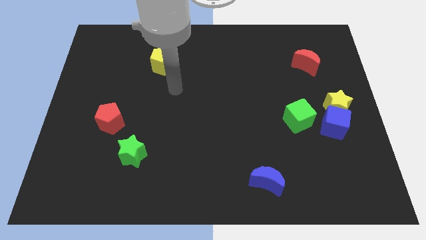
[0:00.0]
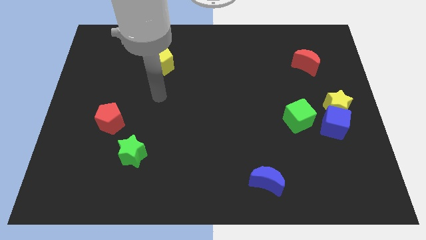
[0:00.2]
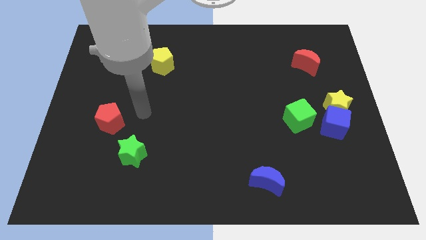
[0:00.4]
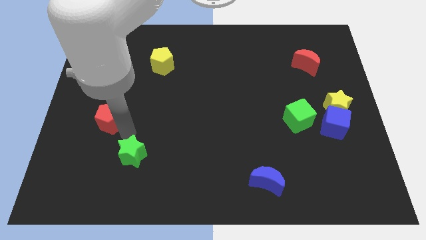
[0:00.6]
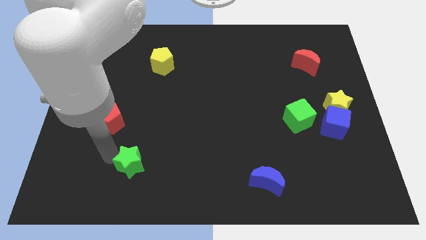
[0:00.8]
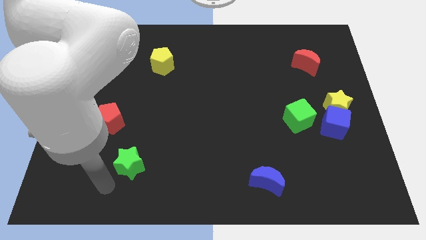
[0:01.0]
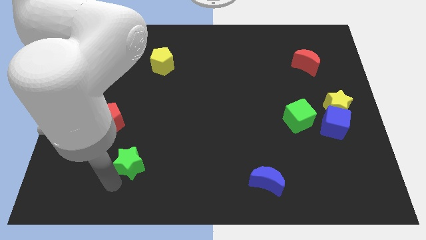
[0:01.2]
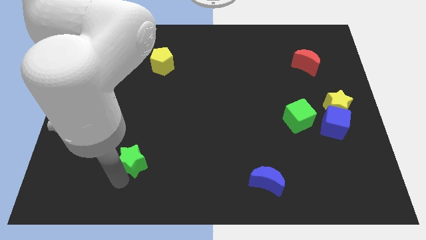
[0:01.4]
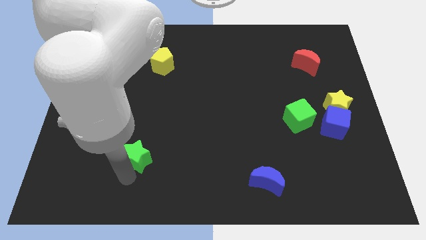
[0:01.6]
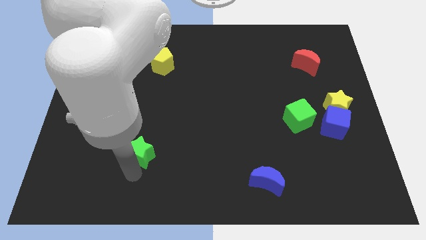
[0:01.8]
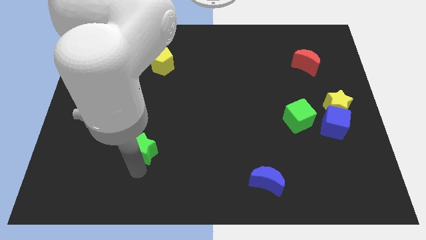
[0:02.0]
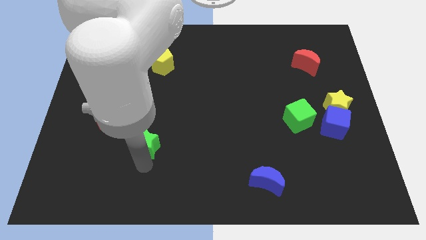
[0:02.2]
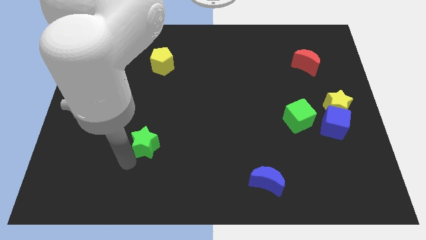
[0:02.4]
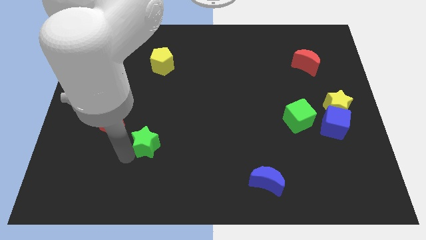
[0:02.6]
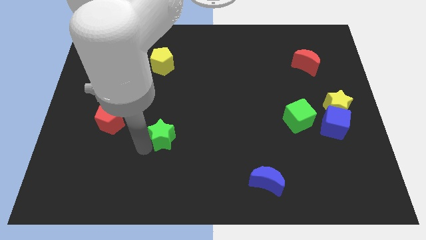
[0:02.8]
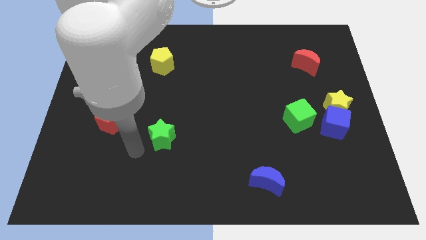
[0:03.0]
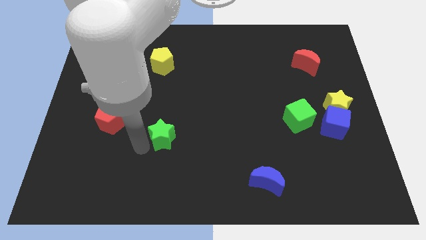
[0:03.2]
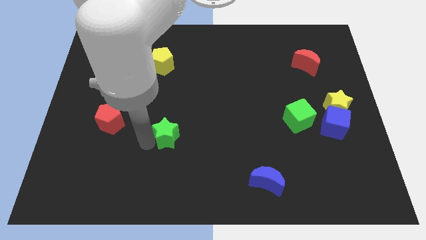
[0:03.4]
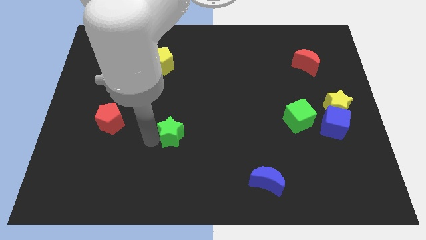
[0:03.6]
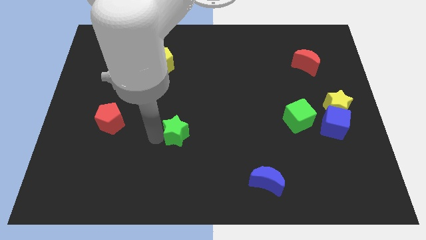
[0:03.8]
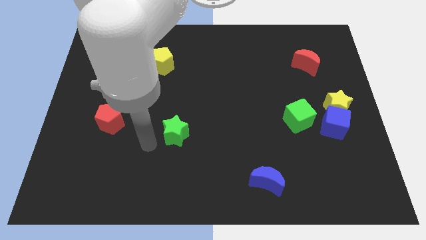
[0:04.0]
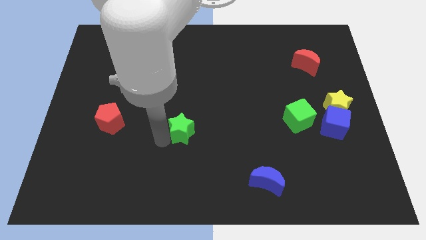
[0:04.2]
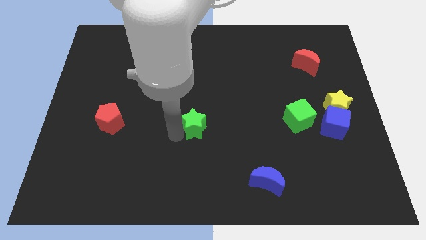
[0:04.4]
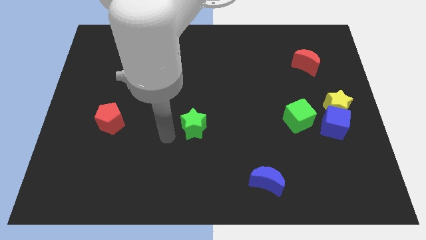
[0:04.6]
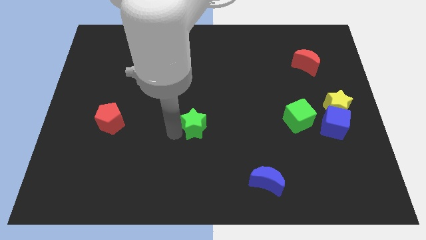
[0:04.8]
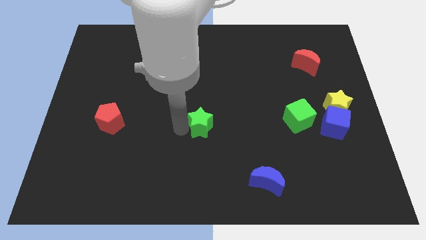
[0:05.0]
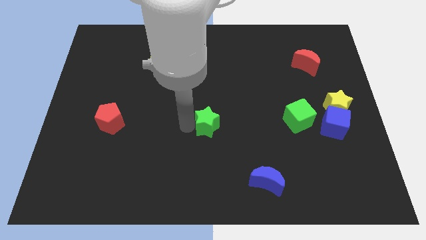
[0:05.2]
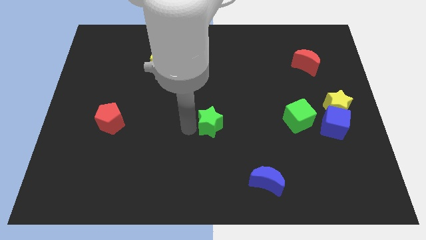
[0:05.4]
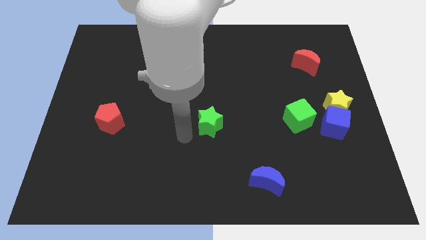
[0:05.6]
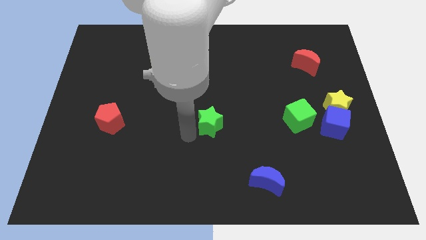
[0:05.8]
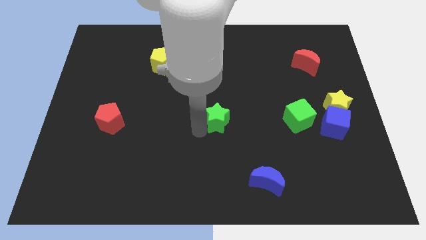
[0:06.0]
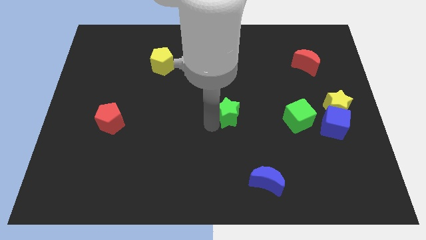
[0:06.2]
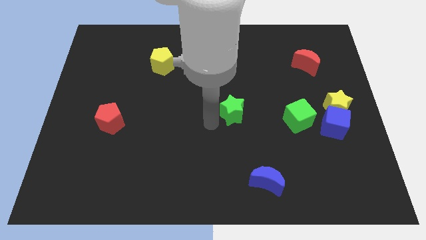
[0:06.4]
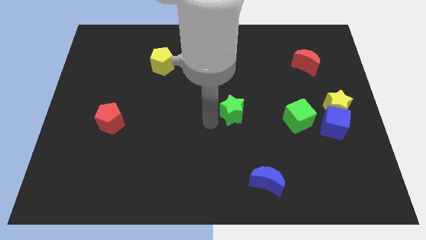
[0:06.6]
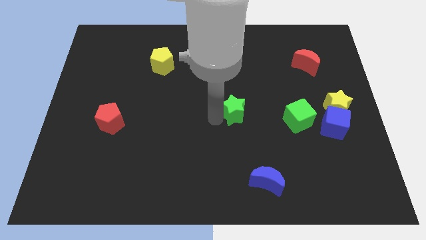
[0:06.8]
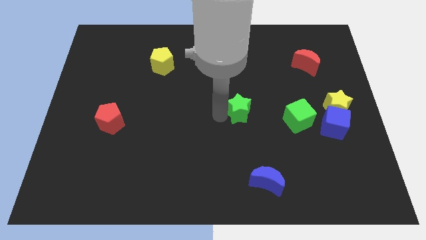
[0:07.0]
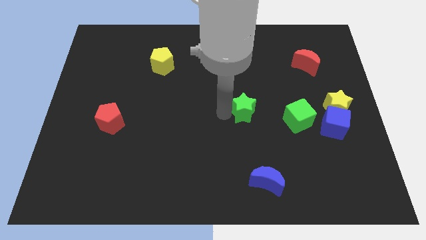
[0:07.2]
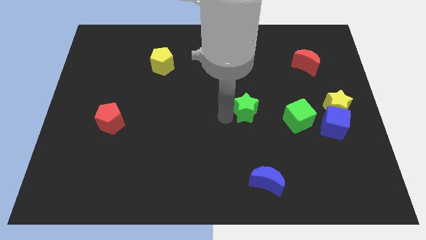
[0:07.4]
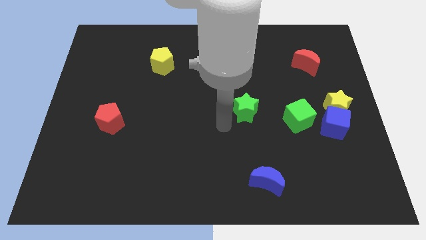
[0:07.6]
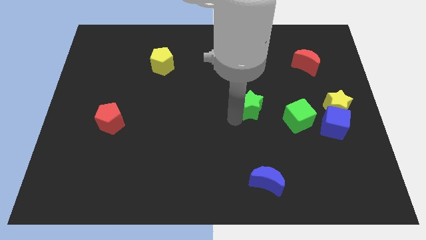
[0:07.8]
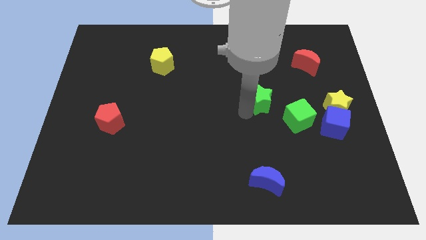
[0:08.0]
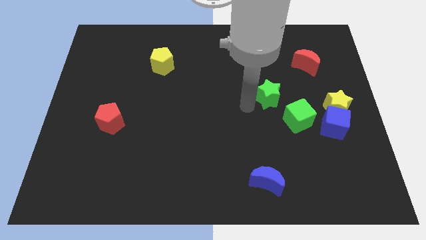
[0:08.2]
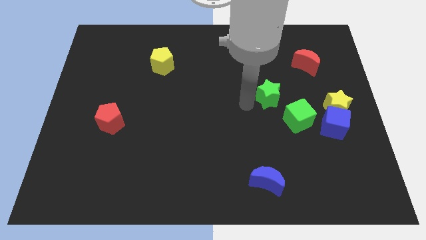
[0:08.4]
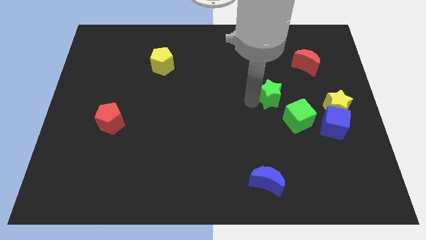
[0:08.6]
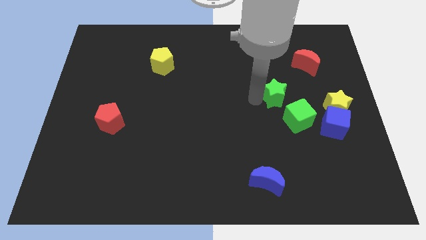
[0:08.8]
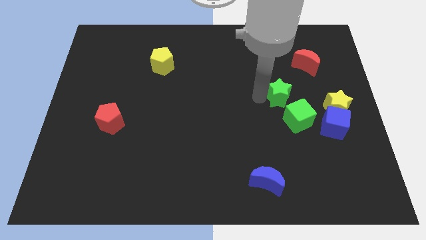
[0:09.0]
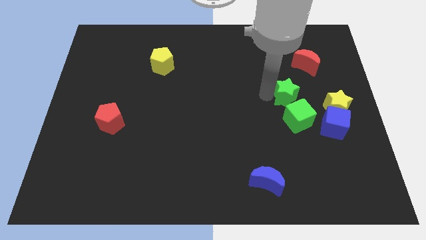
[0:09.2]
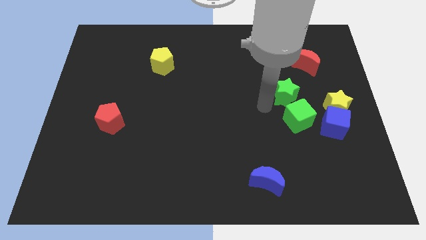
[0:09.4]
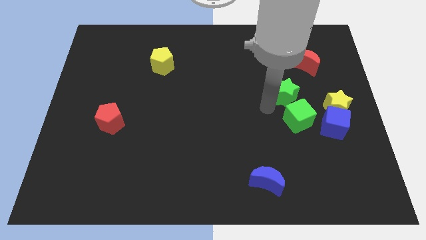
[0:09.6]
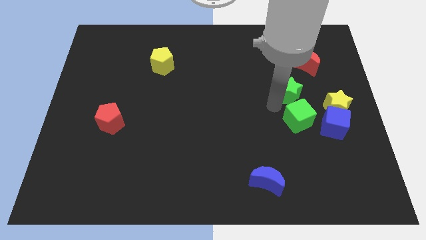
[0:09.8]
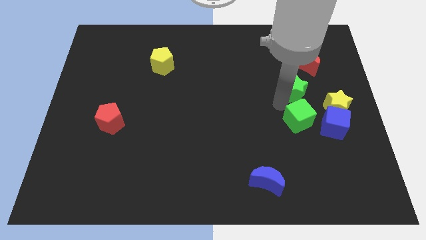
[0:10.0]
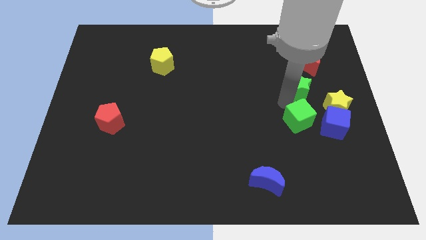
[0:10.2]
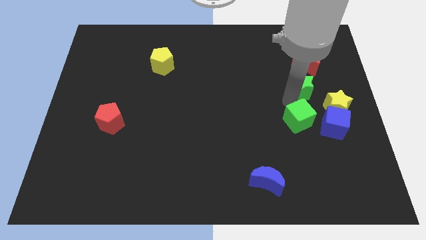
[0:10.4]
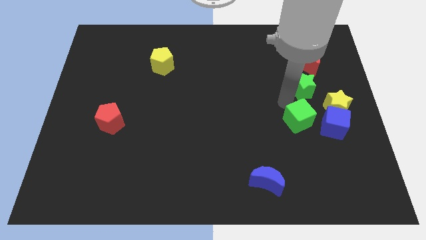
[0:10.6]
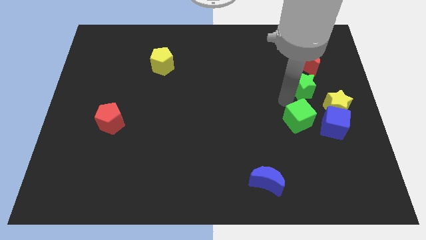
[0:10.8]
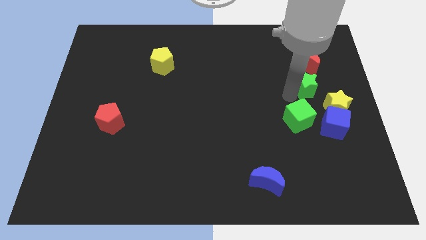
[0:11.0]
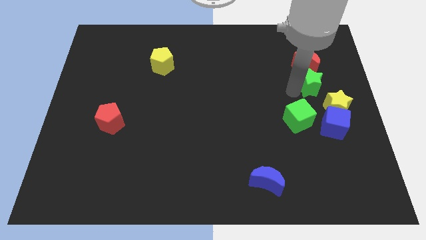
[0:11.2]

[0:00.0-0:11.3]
push the green star to the top side of the yellow star

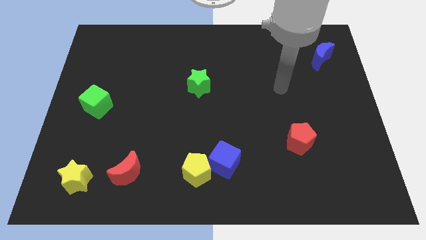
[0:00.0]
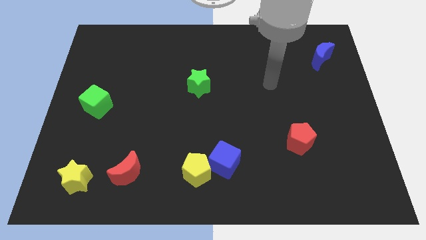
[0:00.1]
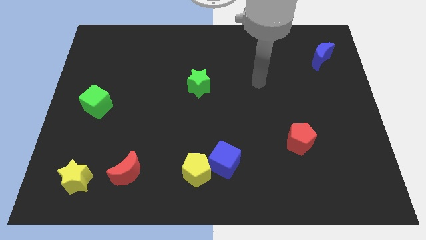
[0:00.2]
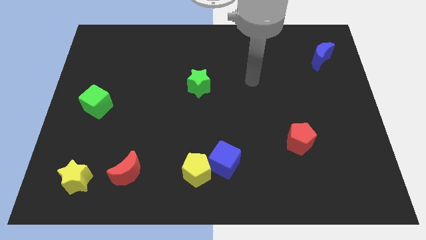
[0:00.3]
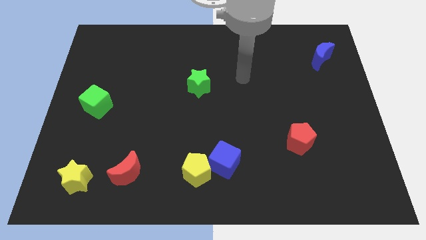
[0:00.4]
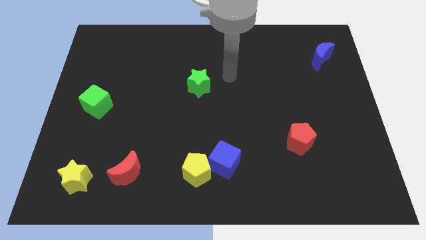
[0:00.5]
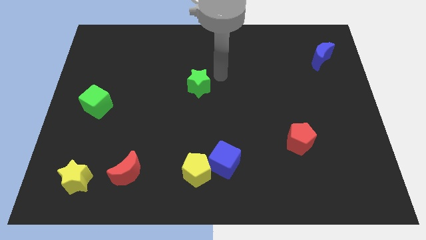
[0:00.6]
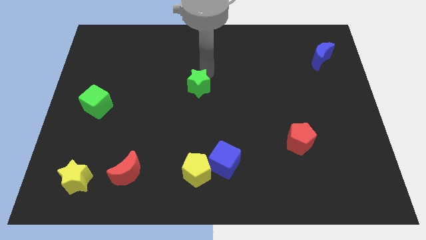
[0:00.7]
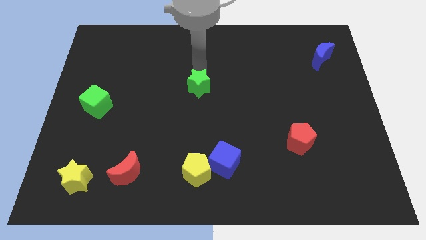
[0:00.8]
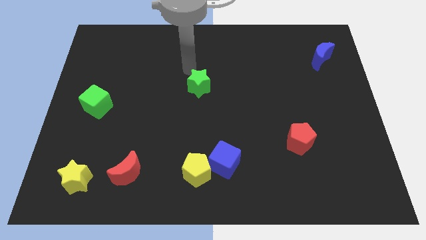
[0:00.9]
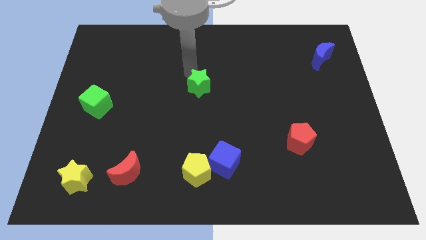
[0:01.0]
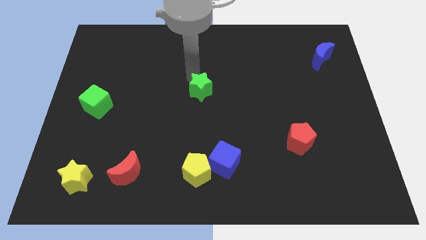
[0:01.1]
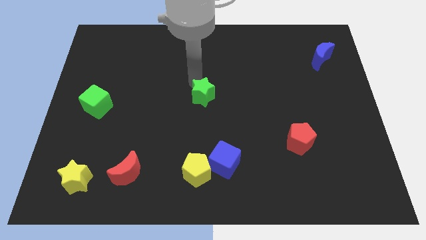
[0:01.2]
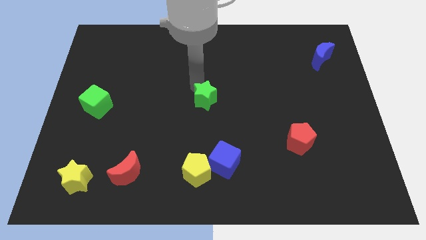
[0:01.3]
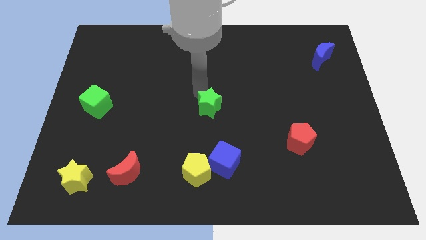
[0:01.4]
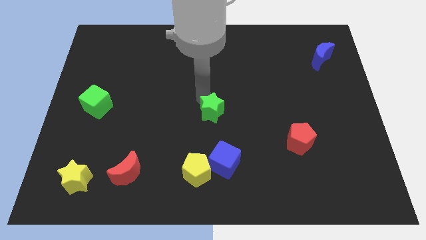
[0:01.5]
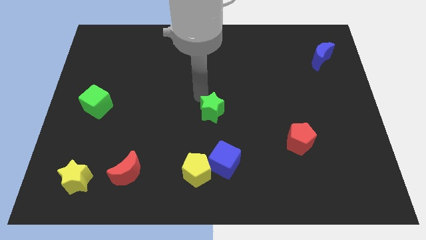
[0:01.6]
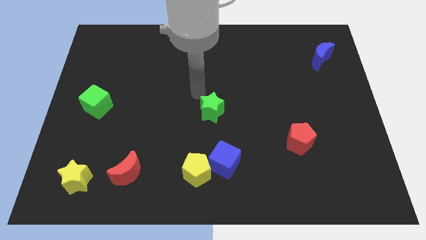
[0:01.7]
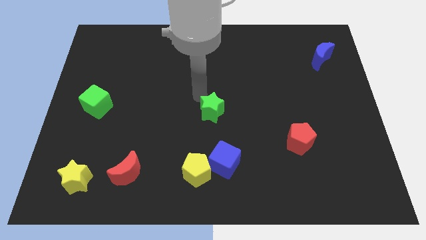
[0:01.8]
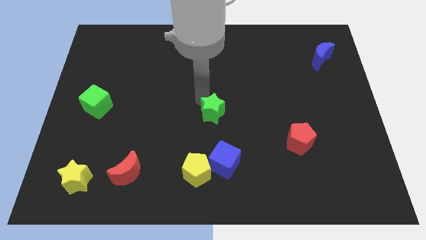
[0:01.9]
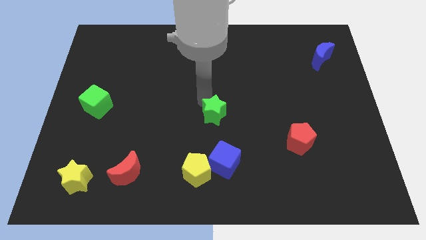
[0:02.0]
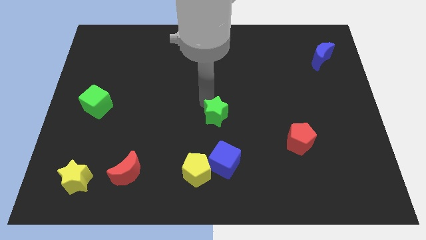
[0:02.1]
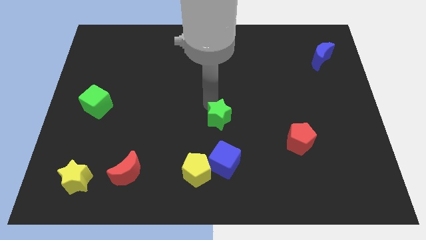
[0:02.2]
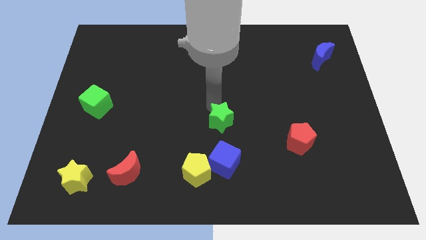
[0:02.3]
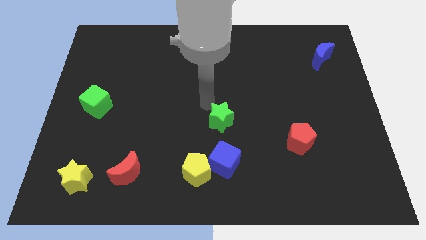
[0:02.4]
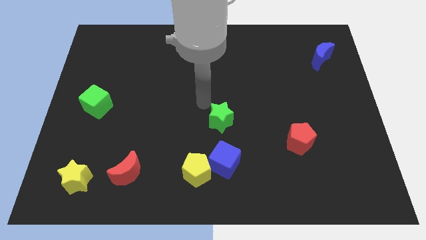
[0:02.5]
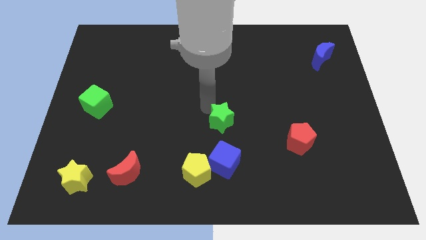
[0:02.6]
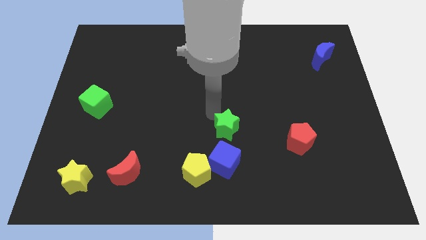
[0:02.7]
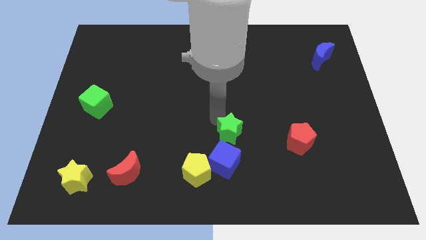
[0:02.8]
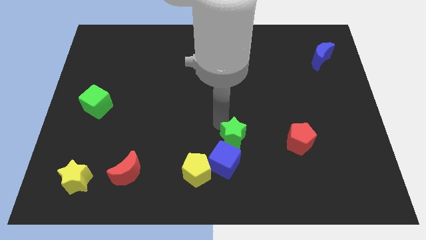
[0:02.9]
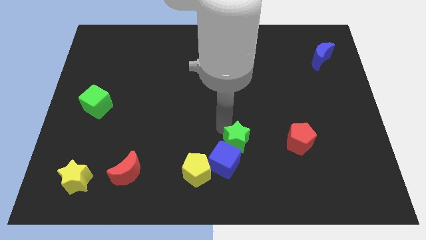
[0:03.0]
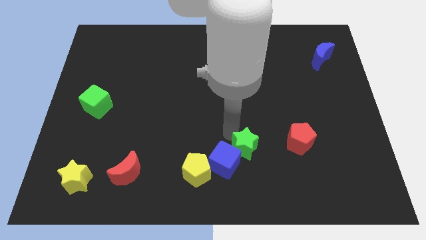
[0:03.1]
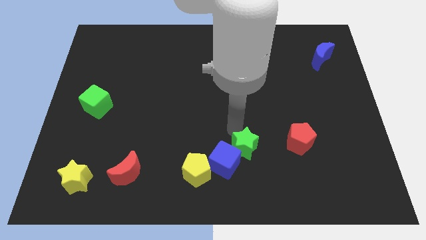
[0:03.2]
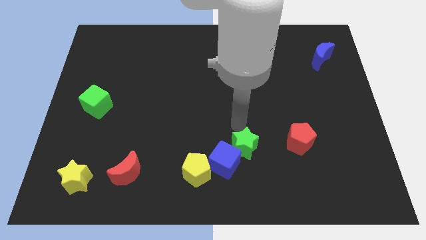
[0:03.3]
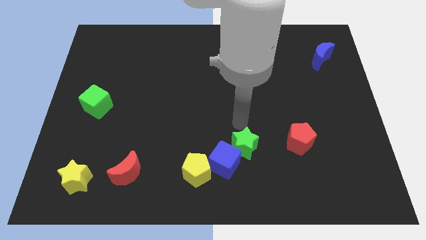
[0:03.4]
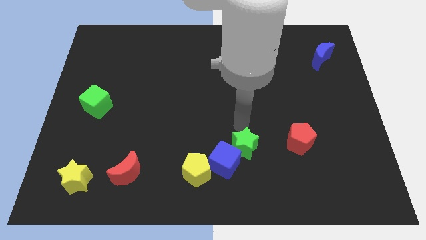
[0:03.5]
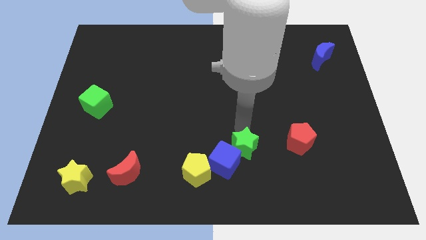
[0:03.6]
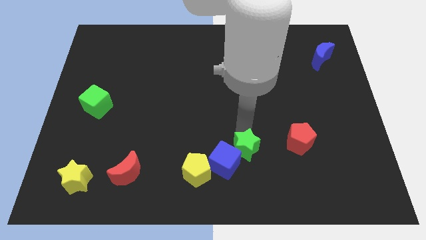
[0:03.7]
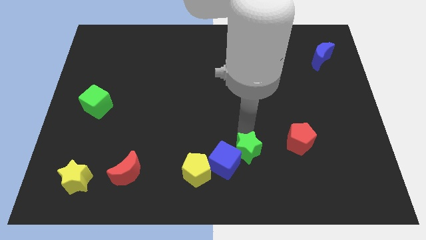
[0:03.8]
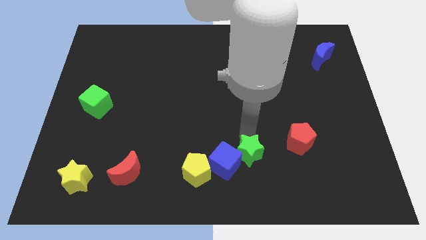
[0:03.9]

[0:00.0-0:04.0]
slide the green star to the right of the yellow pentagon
